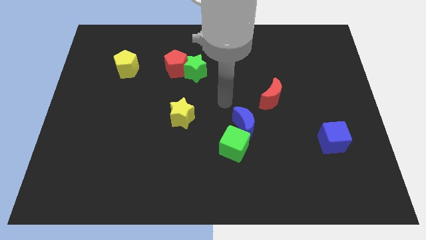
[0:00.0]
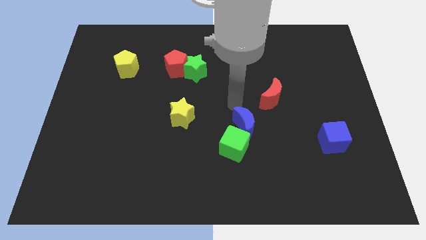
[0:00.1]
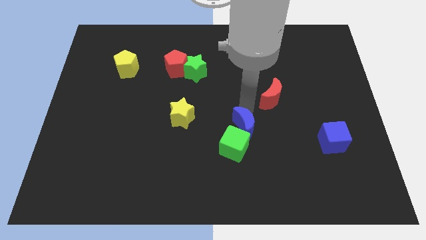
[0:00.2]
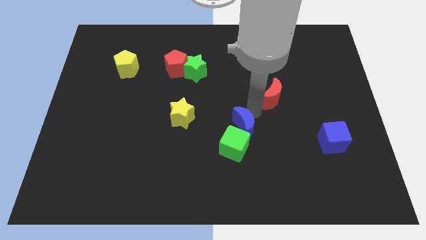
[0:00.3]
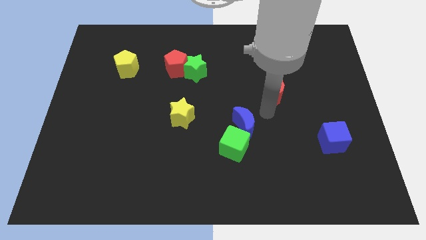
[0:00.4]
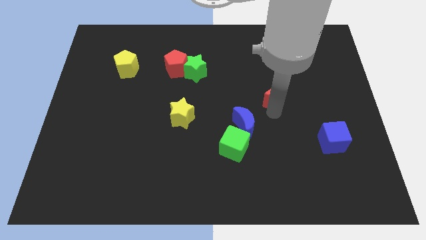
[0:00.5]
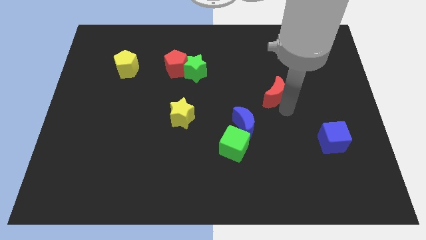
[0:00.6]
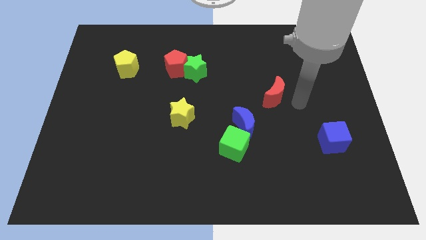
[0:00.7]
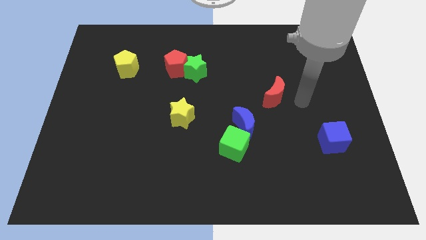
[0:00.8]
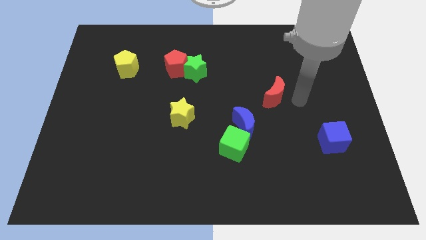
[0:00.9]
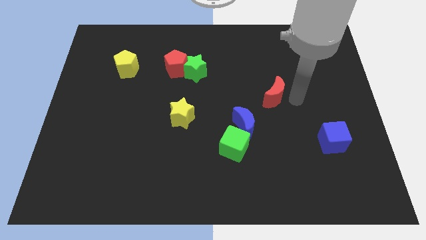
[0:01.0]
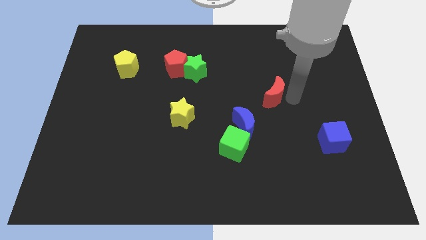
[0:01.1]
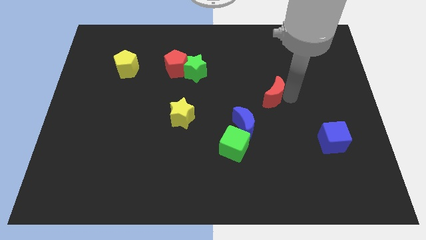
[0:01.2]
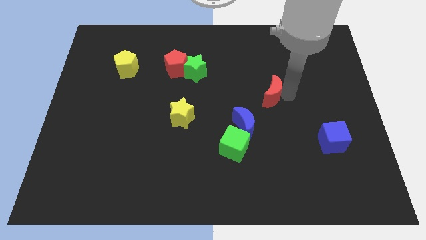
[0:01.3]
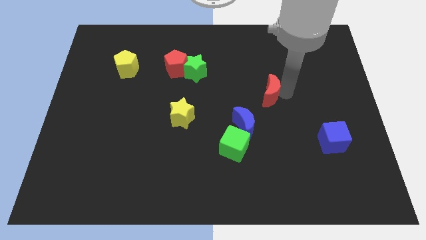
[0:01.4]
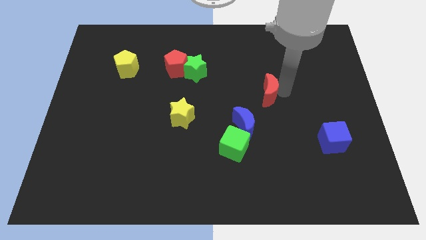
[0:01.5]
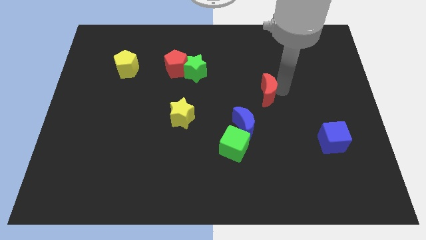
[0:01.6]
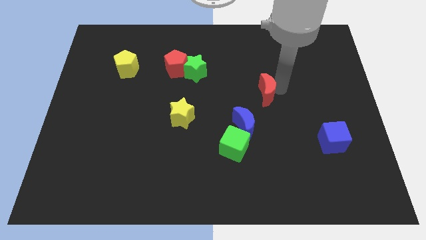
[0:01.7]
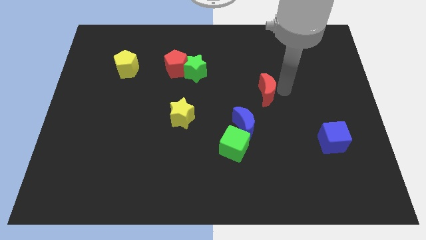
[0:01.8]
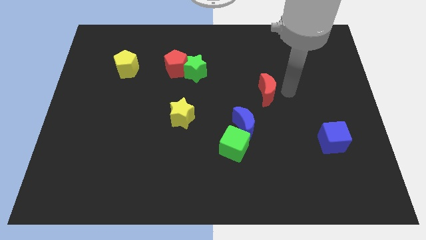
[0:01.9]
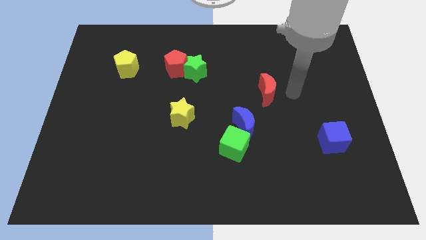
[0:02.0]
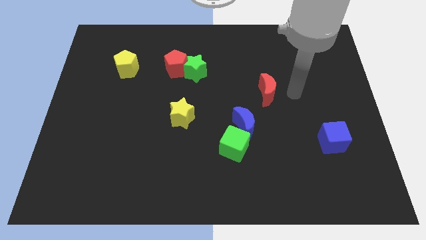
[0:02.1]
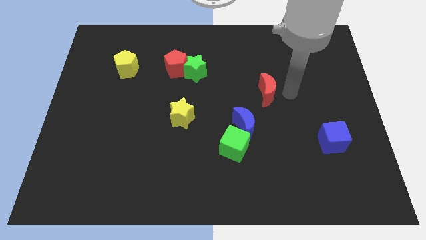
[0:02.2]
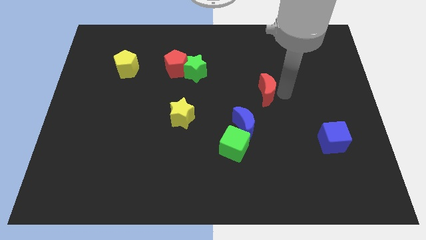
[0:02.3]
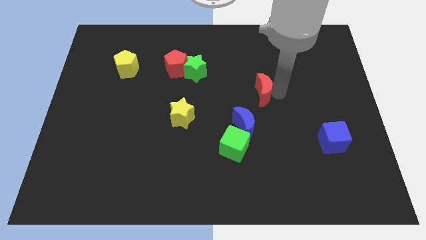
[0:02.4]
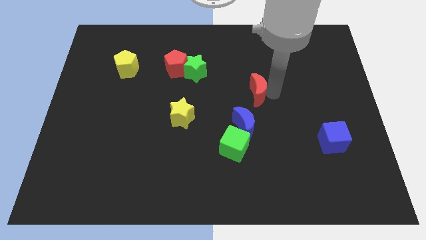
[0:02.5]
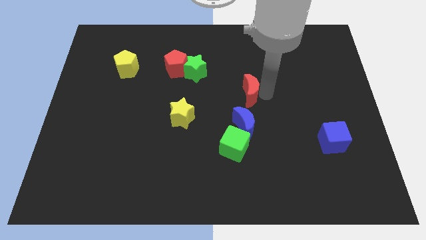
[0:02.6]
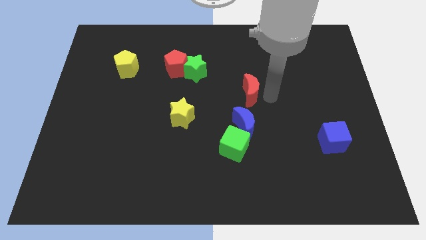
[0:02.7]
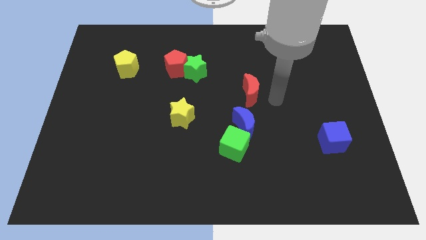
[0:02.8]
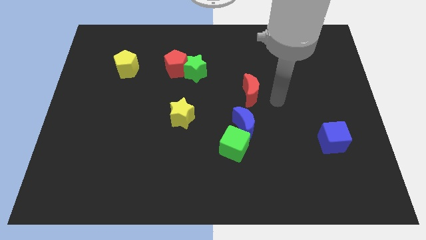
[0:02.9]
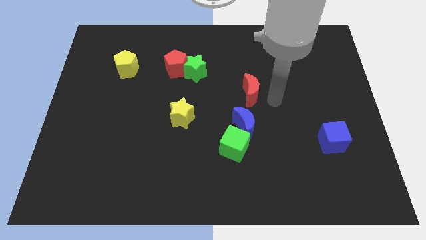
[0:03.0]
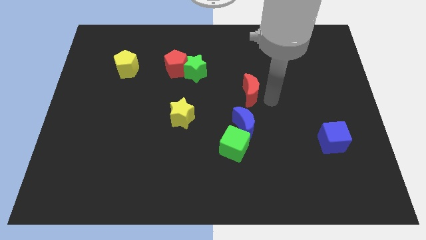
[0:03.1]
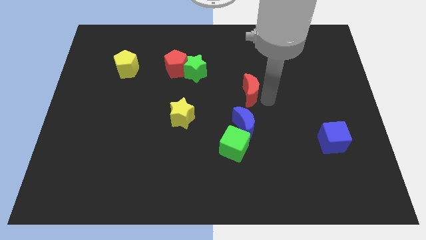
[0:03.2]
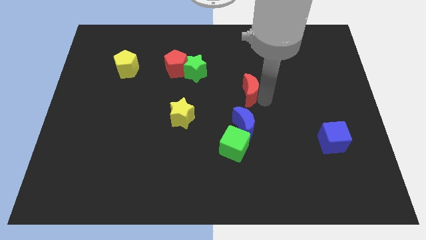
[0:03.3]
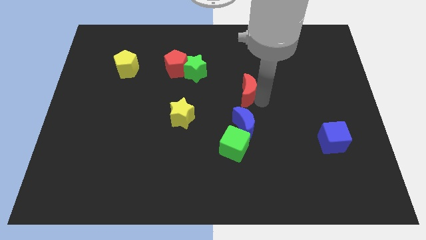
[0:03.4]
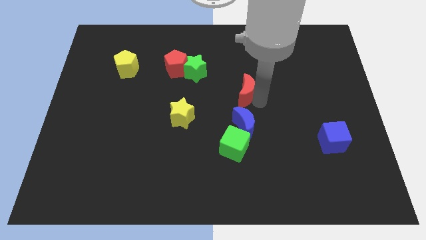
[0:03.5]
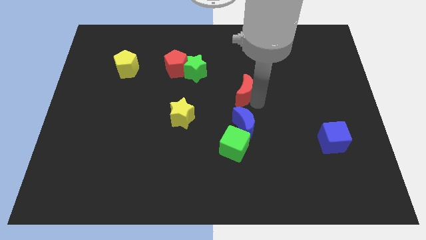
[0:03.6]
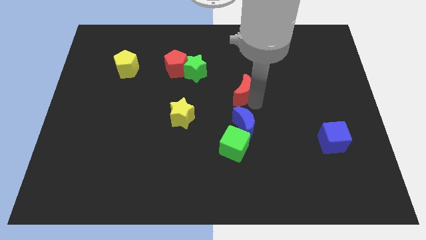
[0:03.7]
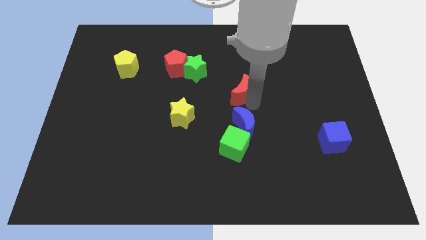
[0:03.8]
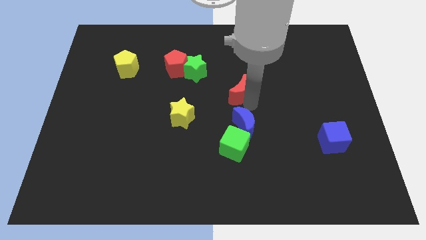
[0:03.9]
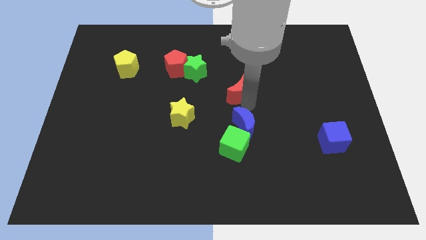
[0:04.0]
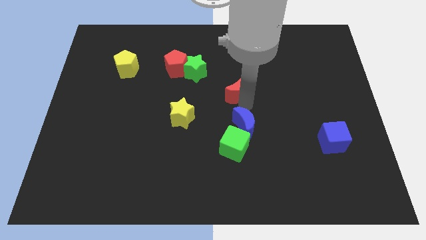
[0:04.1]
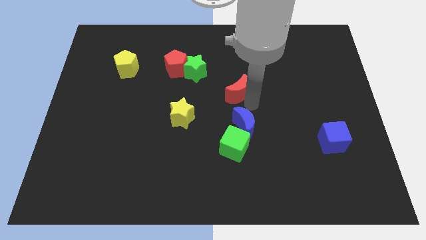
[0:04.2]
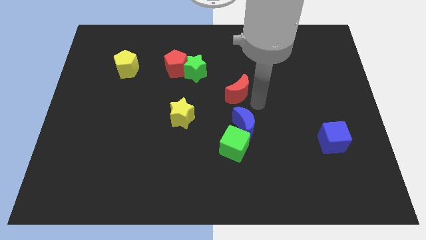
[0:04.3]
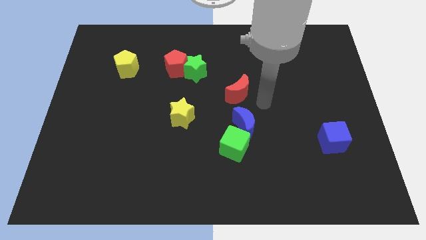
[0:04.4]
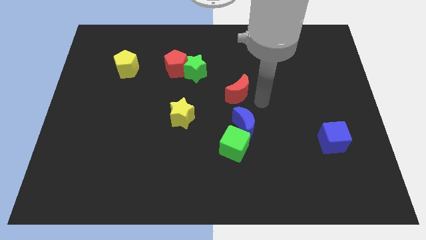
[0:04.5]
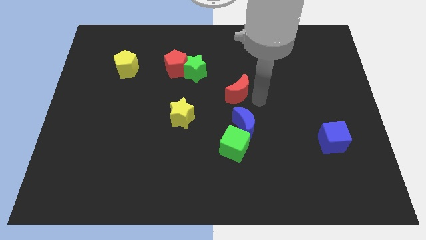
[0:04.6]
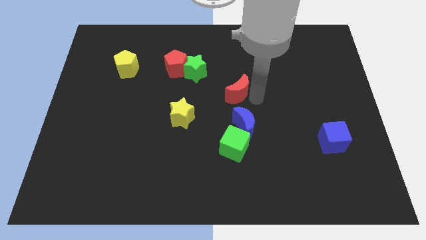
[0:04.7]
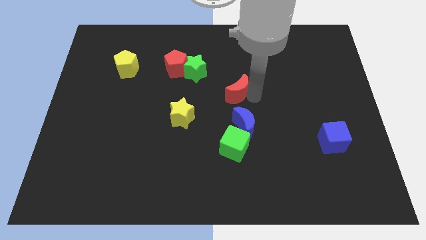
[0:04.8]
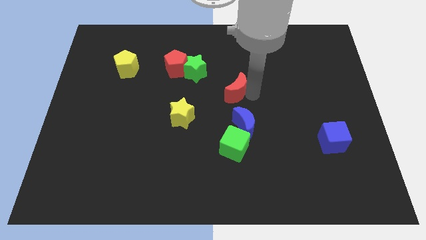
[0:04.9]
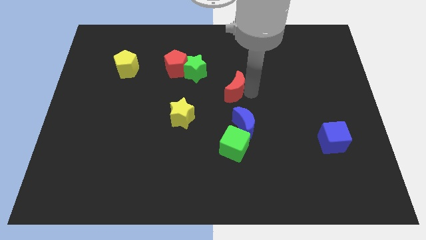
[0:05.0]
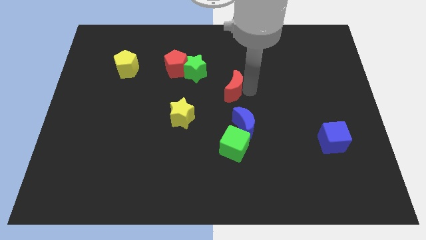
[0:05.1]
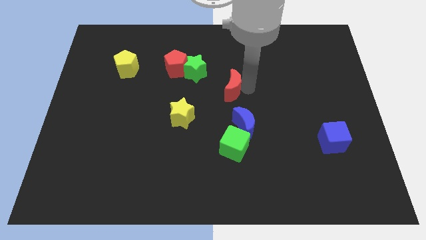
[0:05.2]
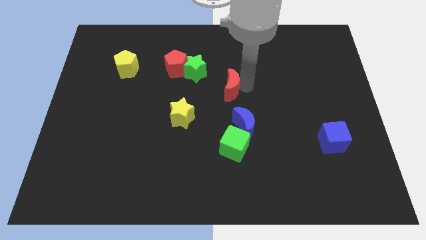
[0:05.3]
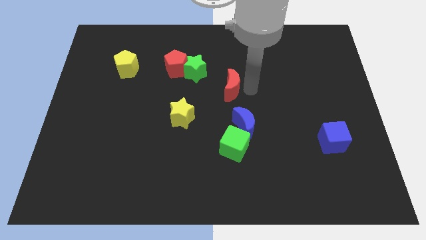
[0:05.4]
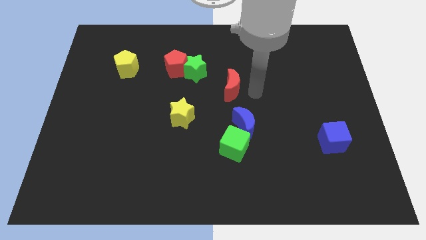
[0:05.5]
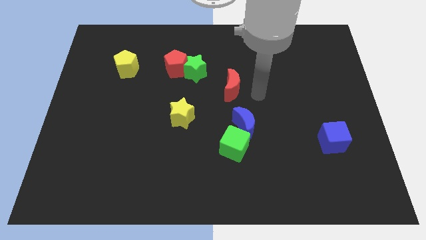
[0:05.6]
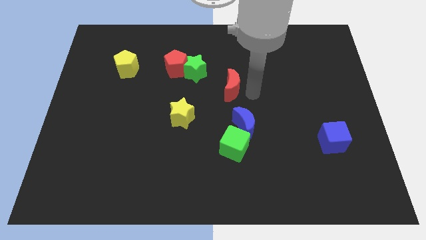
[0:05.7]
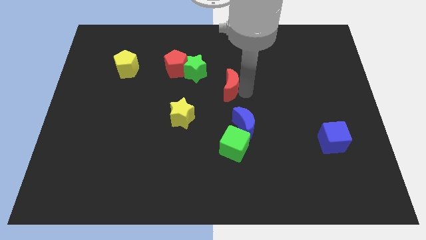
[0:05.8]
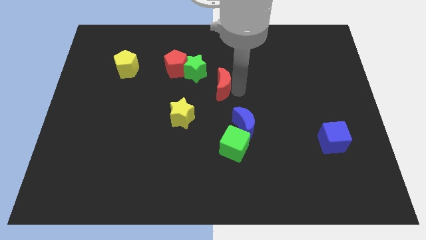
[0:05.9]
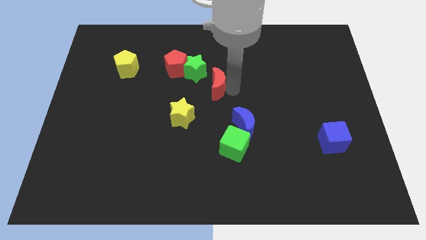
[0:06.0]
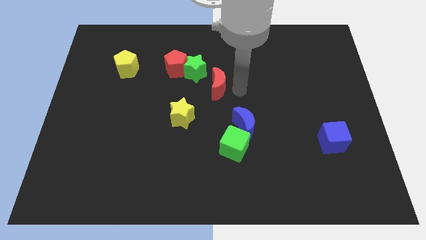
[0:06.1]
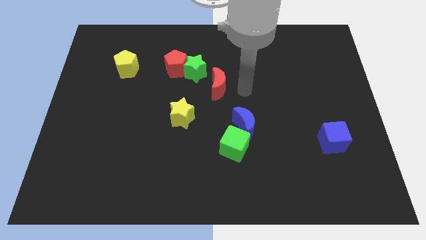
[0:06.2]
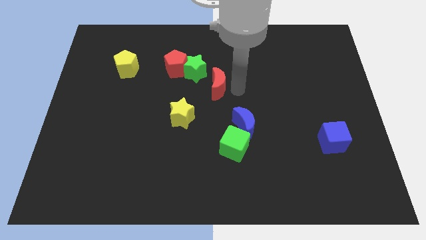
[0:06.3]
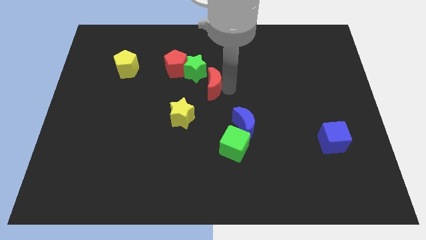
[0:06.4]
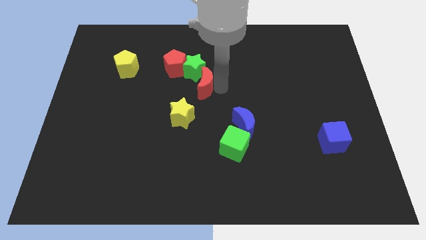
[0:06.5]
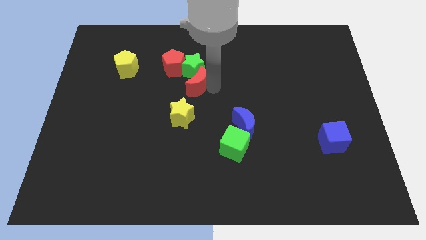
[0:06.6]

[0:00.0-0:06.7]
push the red moon to the top side of the yellow star

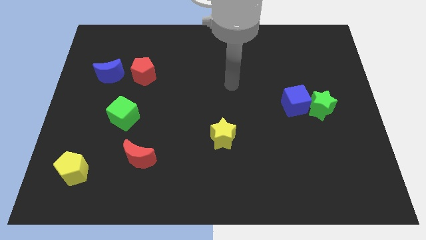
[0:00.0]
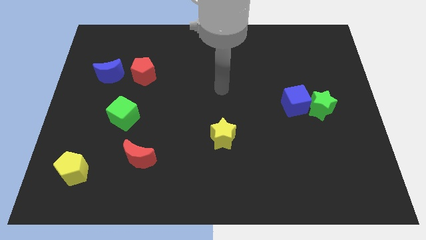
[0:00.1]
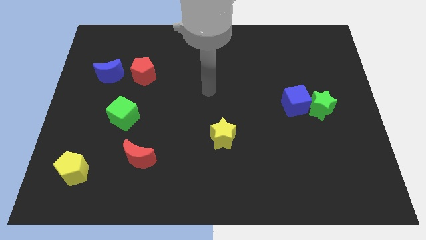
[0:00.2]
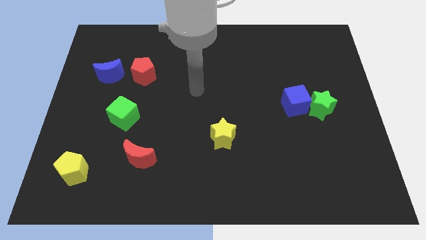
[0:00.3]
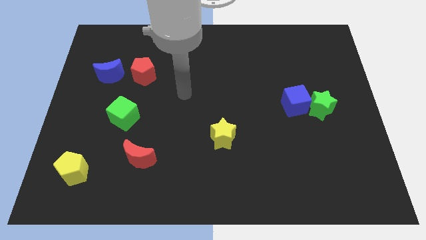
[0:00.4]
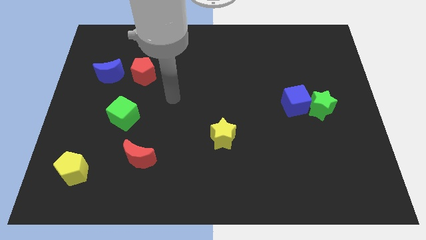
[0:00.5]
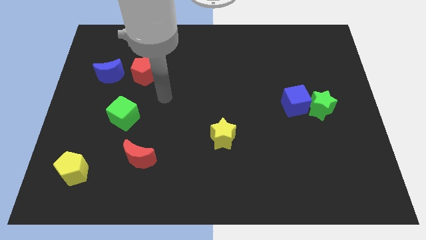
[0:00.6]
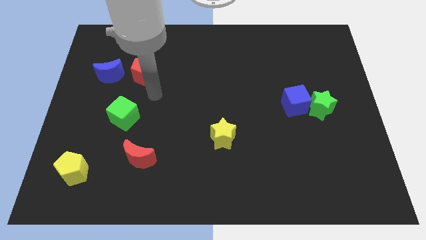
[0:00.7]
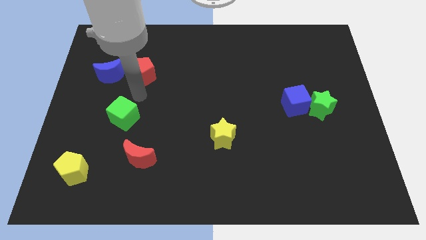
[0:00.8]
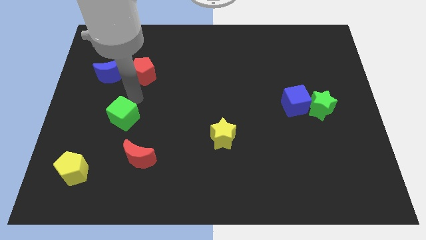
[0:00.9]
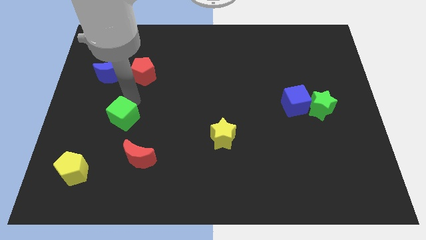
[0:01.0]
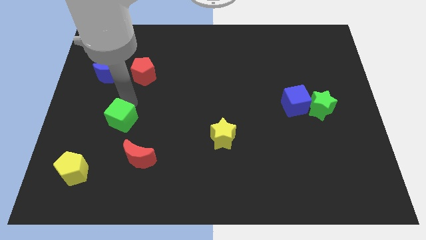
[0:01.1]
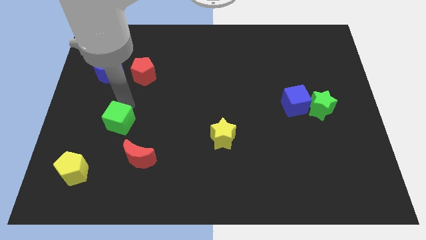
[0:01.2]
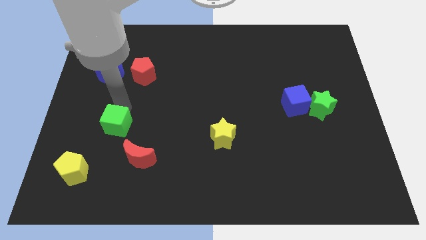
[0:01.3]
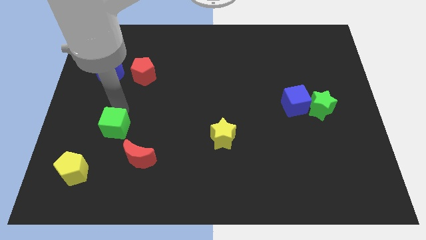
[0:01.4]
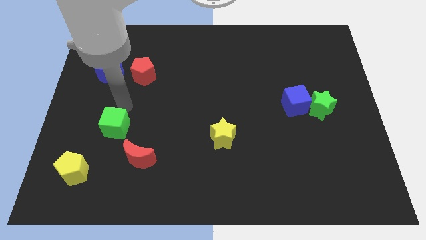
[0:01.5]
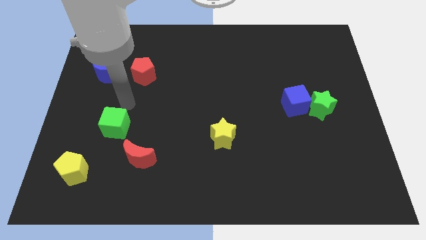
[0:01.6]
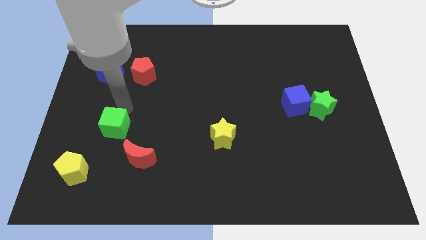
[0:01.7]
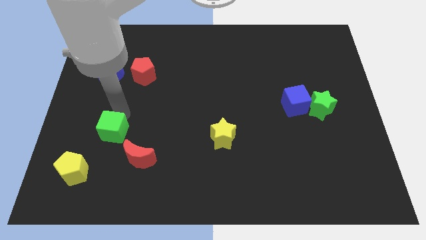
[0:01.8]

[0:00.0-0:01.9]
push the green cube to the top right of the yellow pentagon
